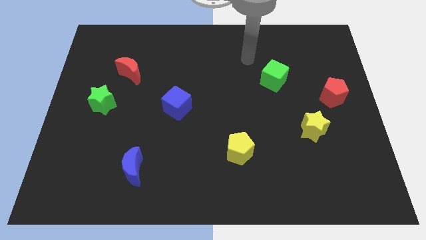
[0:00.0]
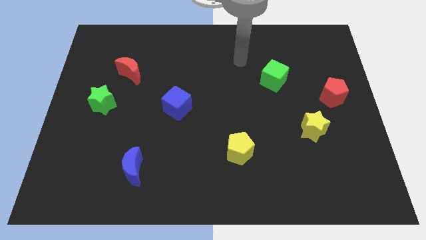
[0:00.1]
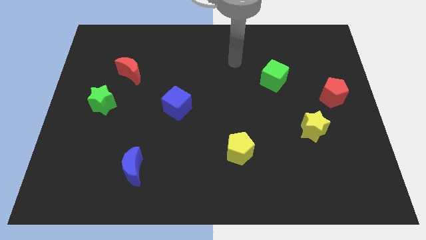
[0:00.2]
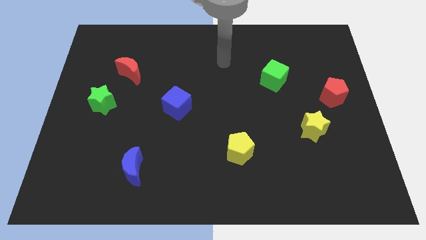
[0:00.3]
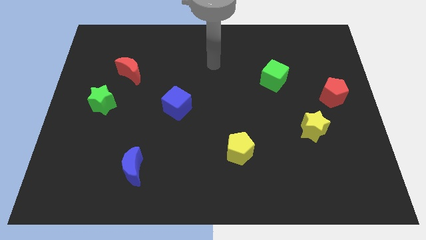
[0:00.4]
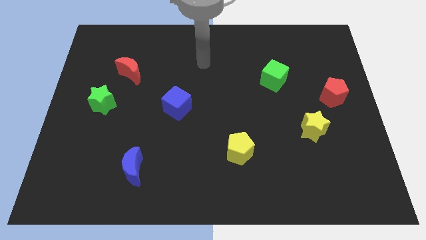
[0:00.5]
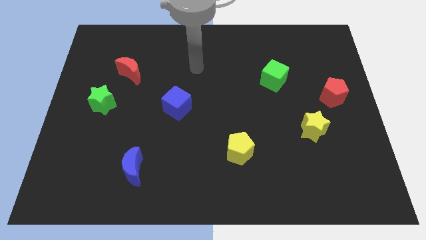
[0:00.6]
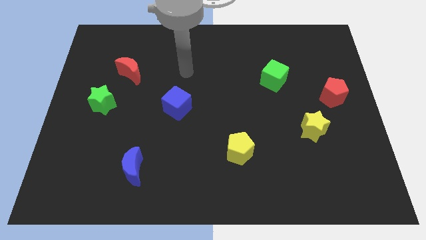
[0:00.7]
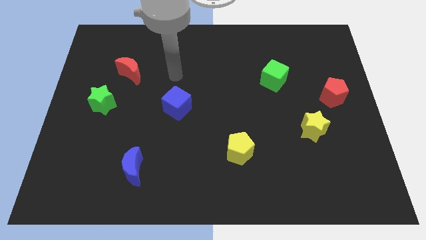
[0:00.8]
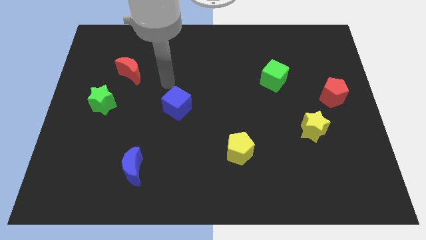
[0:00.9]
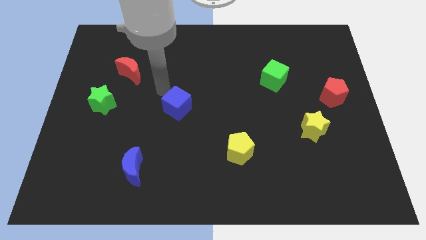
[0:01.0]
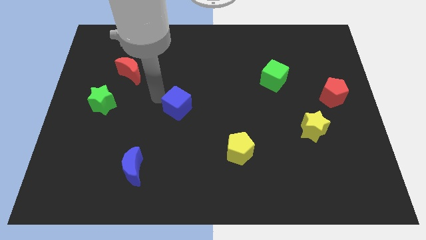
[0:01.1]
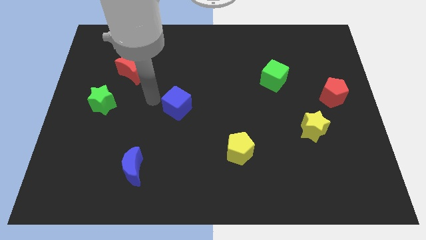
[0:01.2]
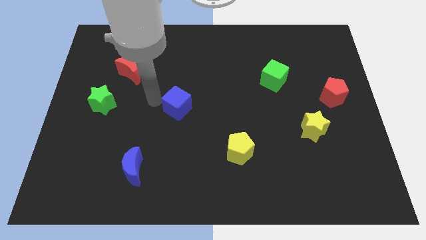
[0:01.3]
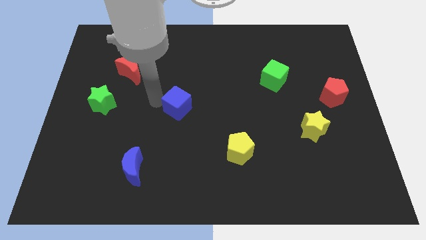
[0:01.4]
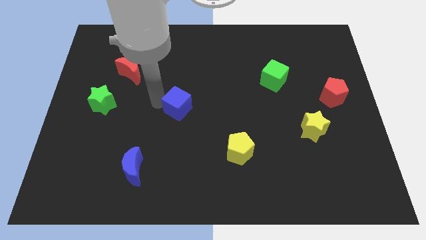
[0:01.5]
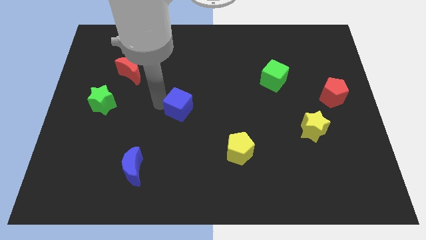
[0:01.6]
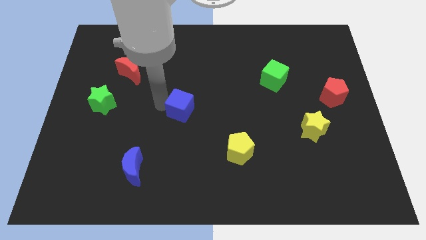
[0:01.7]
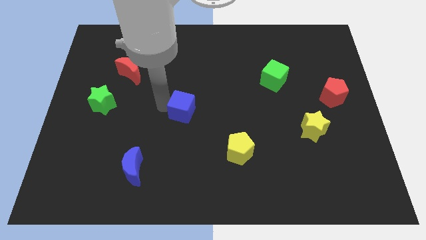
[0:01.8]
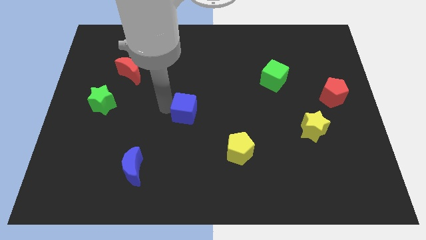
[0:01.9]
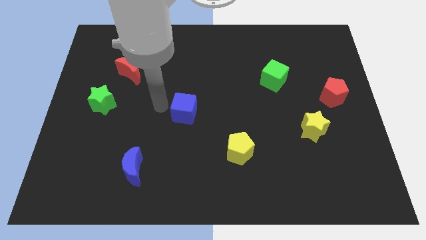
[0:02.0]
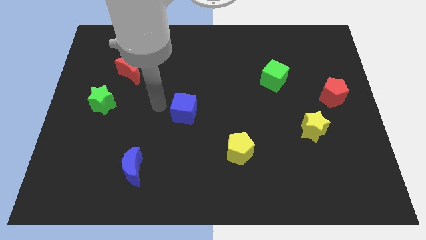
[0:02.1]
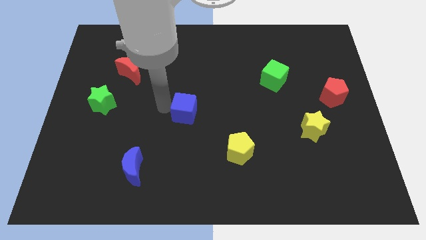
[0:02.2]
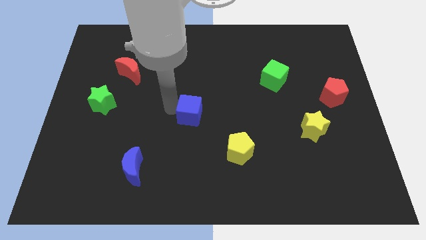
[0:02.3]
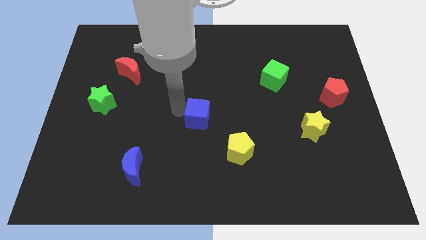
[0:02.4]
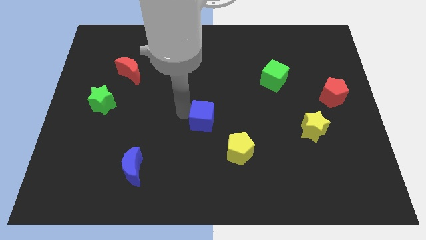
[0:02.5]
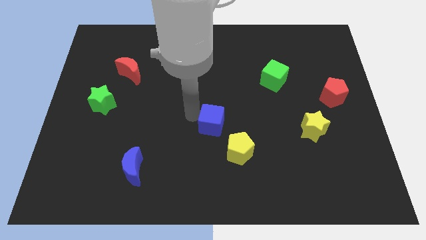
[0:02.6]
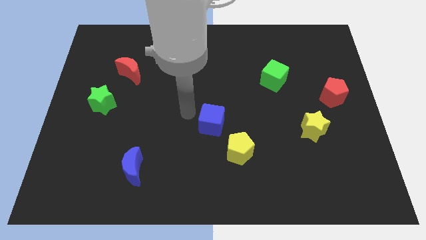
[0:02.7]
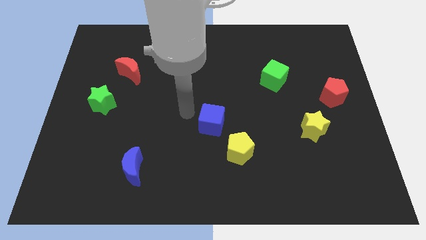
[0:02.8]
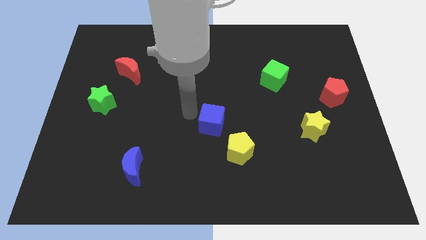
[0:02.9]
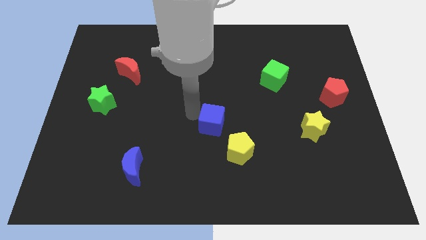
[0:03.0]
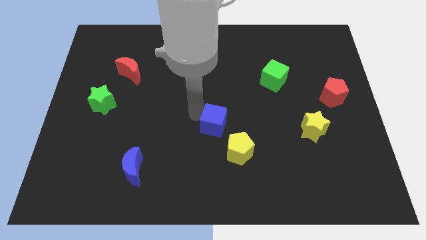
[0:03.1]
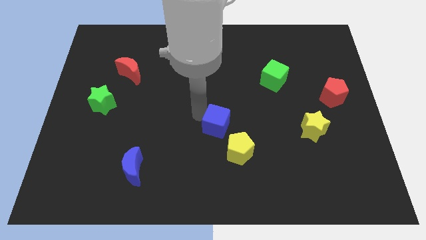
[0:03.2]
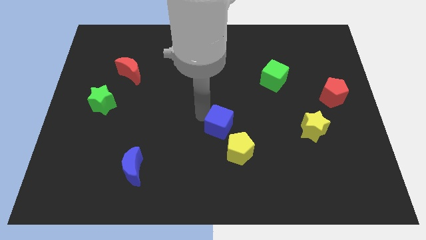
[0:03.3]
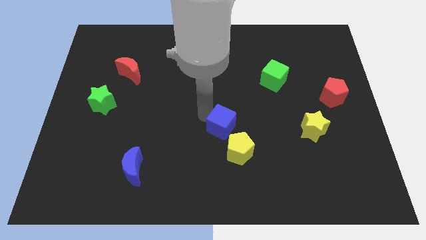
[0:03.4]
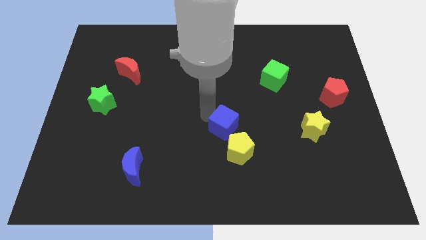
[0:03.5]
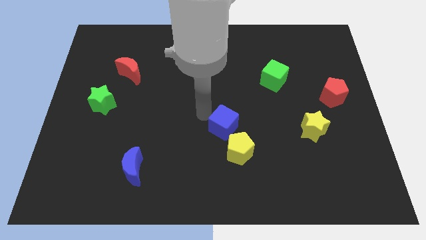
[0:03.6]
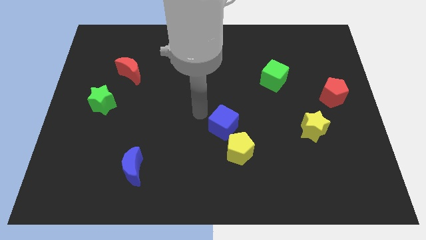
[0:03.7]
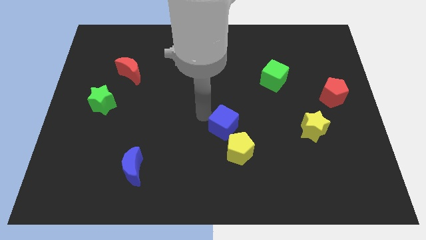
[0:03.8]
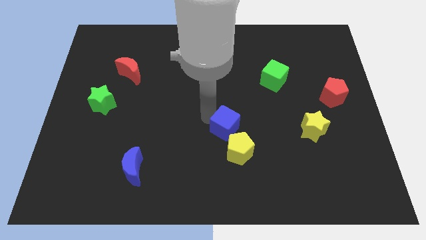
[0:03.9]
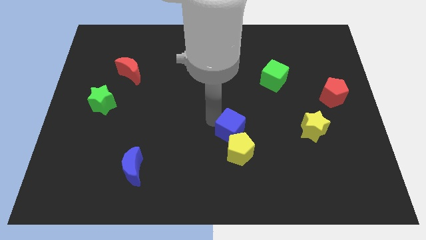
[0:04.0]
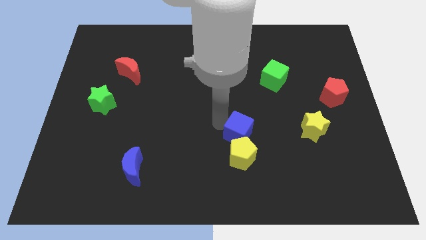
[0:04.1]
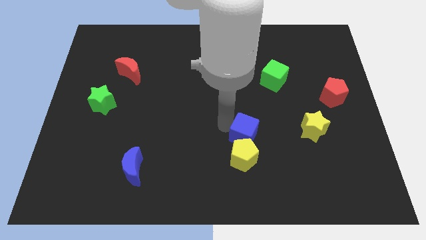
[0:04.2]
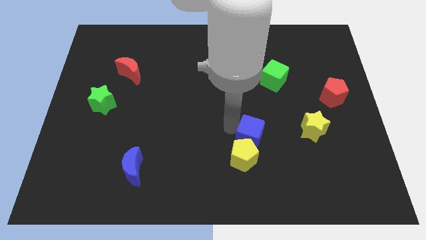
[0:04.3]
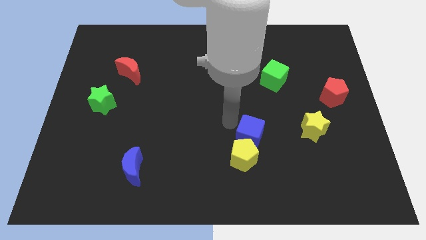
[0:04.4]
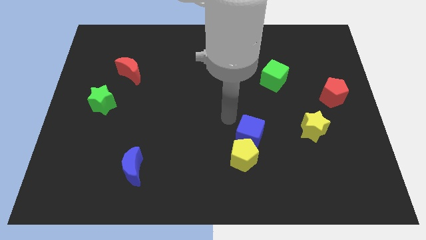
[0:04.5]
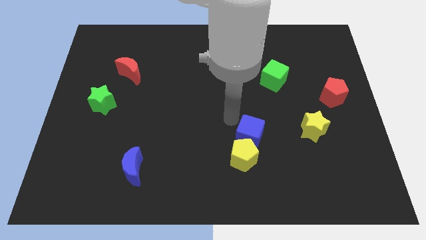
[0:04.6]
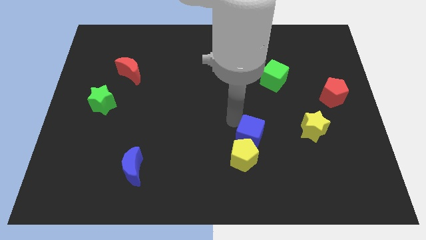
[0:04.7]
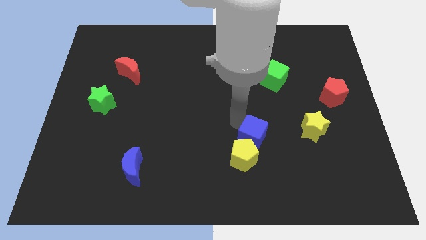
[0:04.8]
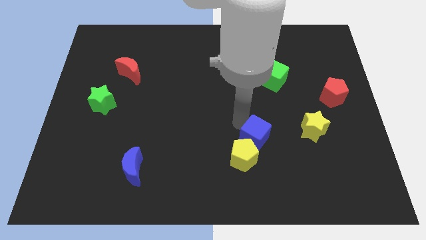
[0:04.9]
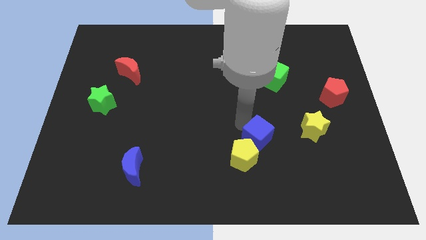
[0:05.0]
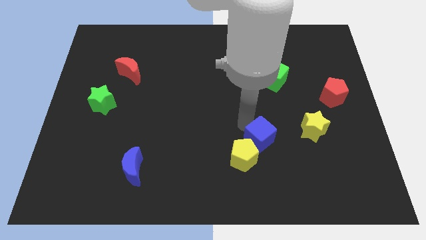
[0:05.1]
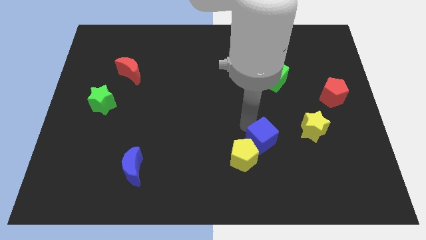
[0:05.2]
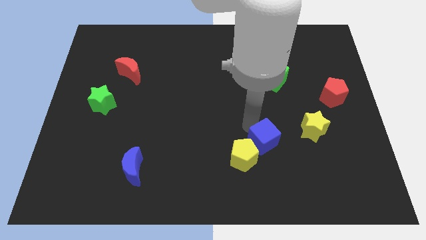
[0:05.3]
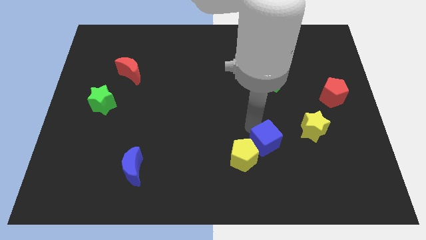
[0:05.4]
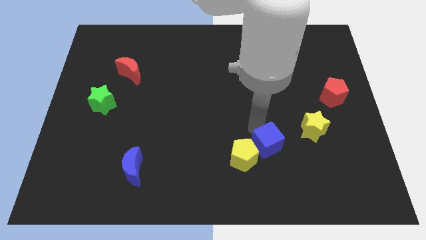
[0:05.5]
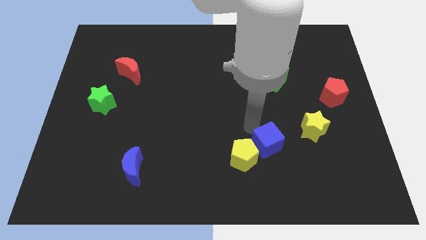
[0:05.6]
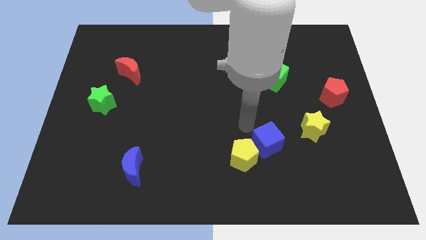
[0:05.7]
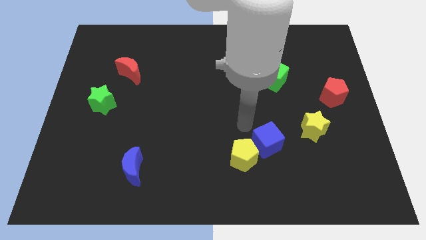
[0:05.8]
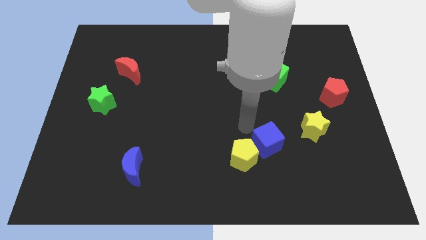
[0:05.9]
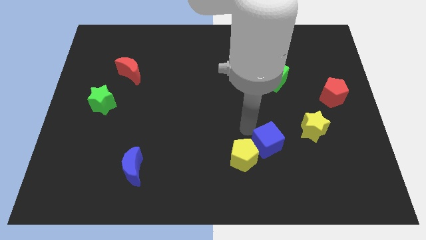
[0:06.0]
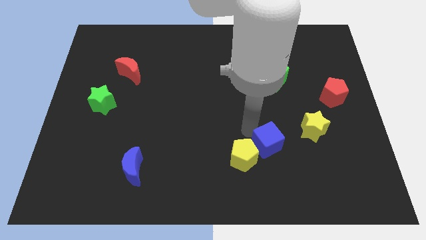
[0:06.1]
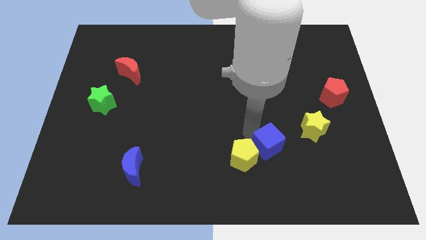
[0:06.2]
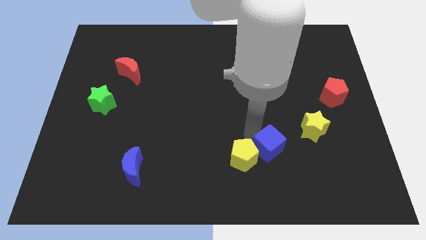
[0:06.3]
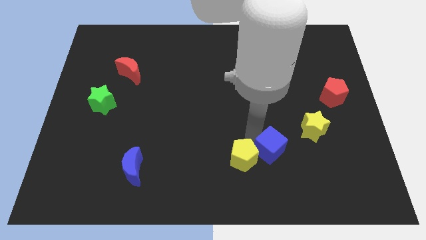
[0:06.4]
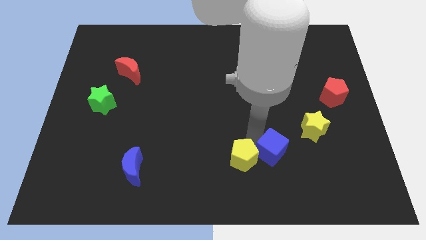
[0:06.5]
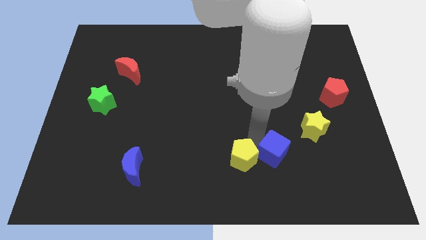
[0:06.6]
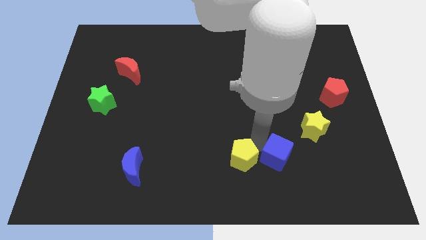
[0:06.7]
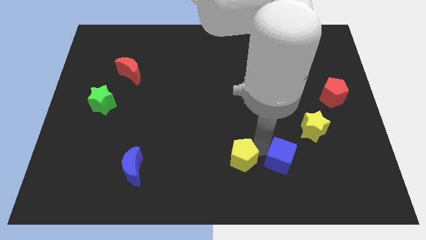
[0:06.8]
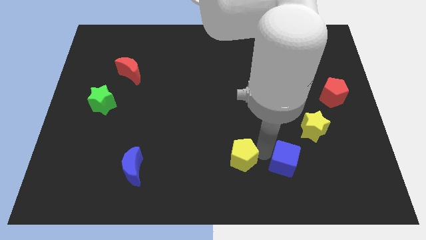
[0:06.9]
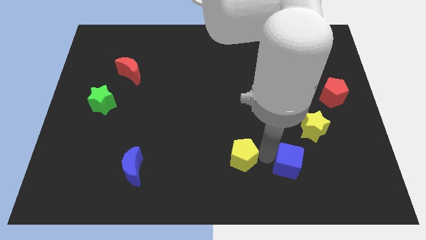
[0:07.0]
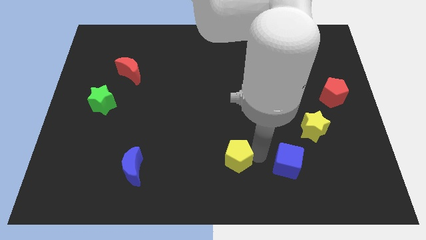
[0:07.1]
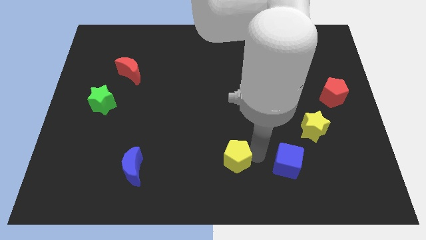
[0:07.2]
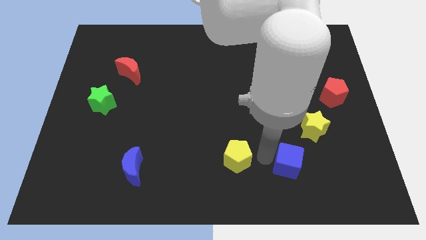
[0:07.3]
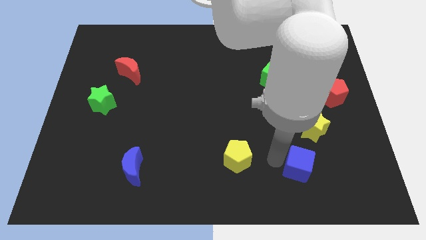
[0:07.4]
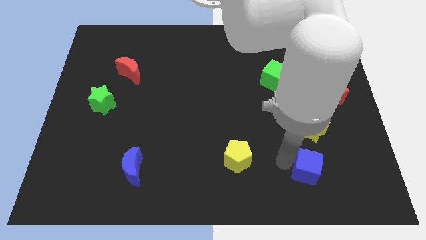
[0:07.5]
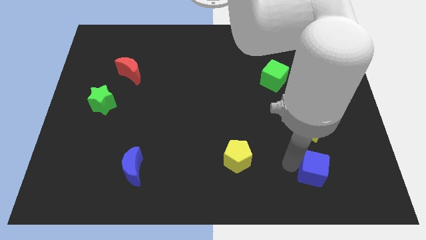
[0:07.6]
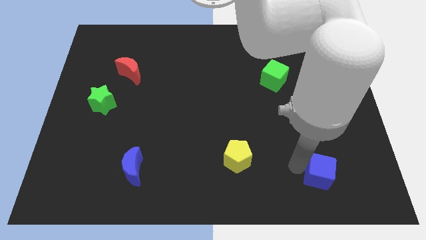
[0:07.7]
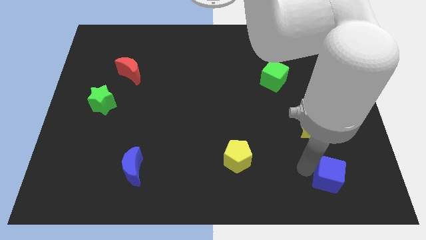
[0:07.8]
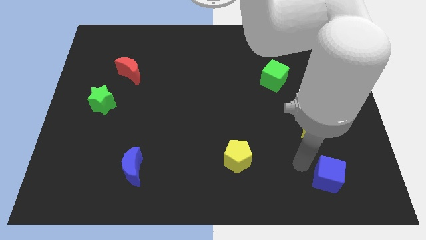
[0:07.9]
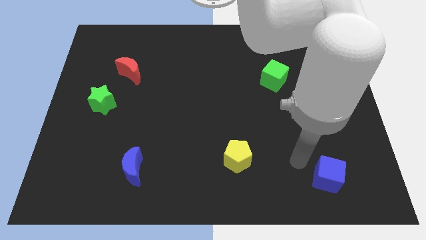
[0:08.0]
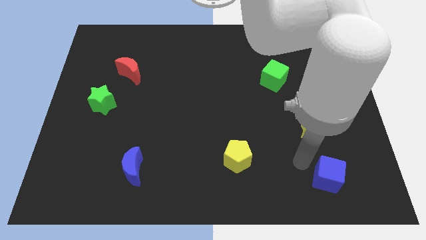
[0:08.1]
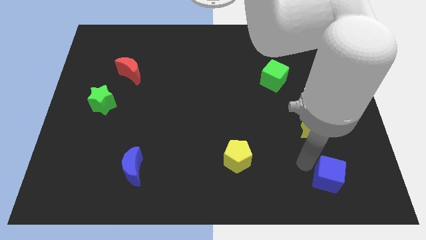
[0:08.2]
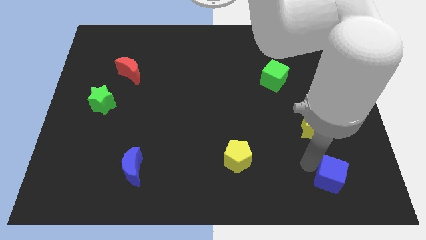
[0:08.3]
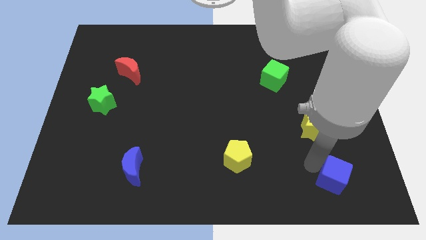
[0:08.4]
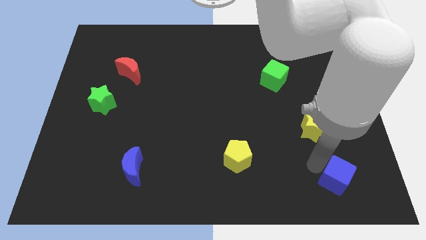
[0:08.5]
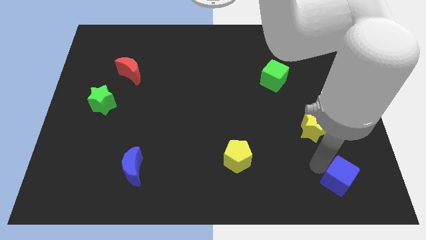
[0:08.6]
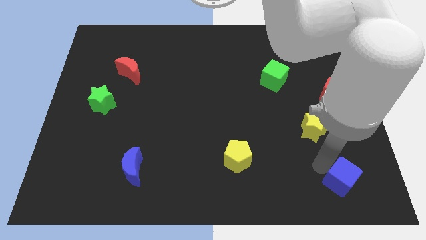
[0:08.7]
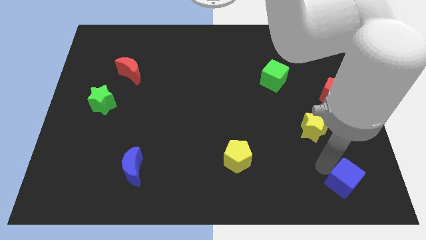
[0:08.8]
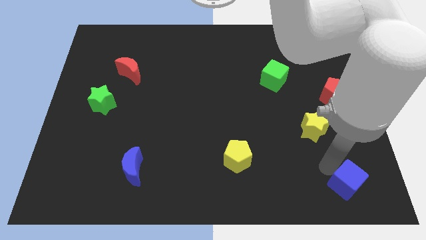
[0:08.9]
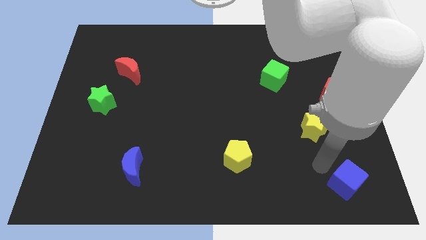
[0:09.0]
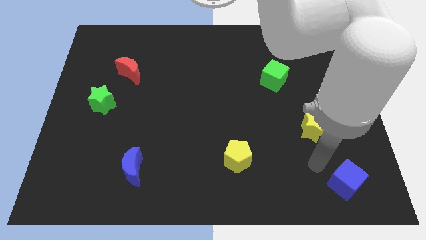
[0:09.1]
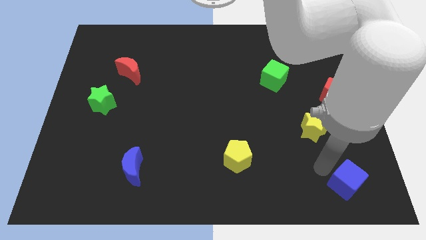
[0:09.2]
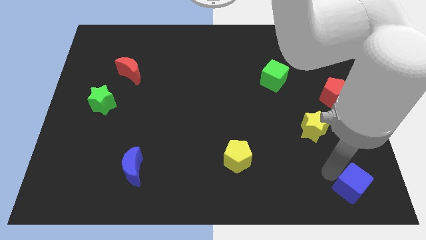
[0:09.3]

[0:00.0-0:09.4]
slide the blue cube to the lower right corner
